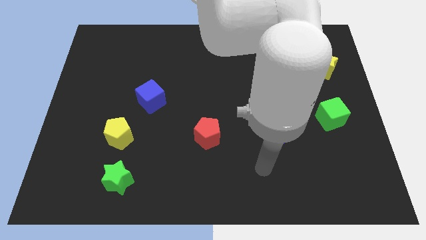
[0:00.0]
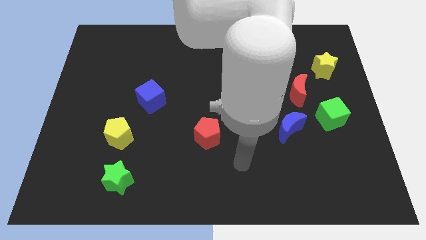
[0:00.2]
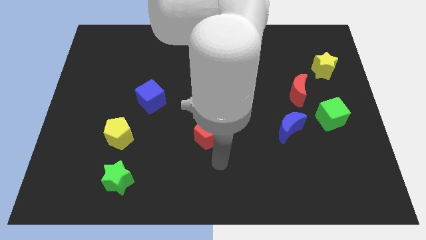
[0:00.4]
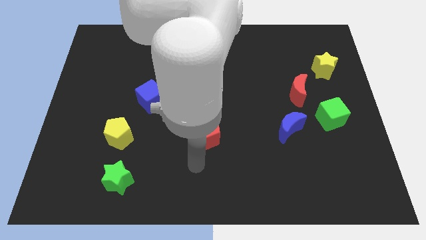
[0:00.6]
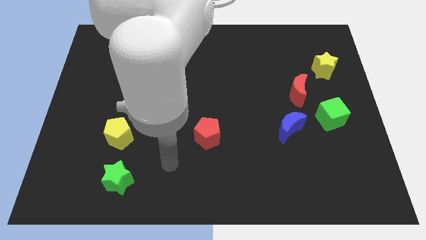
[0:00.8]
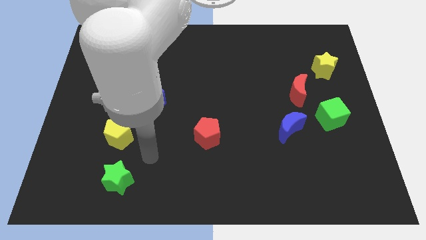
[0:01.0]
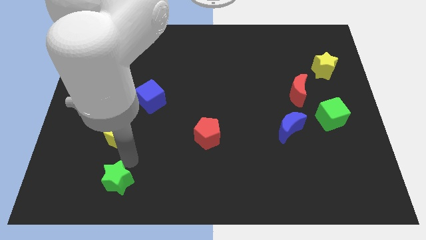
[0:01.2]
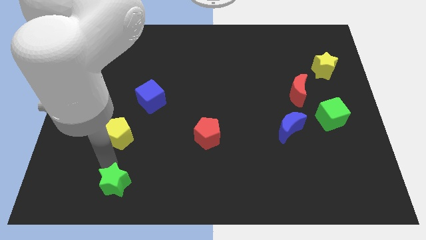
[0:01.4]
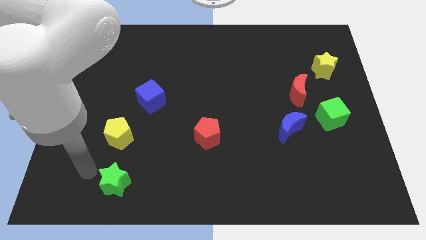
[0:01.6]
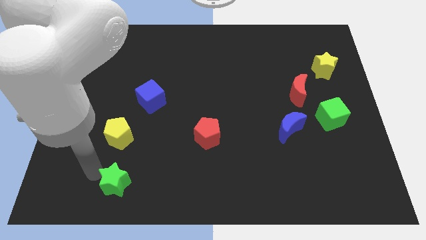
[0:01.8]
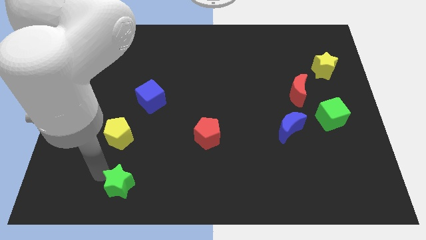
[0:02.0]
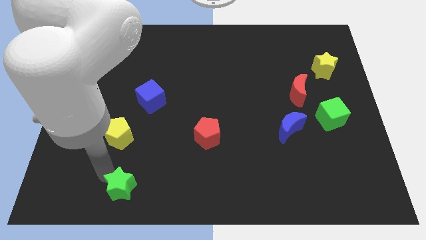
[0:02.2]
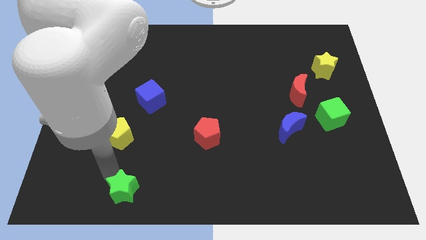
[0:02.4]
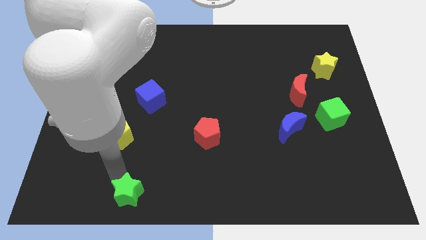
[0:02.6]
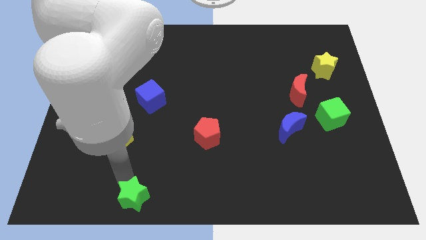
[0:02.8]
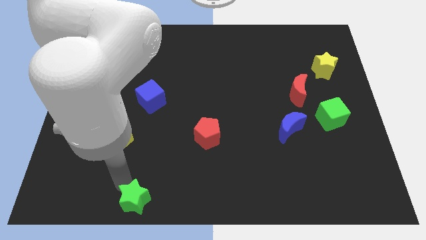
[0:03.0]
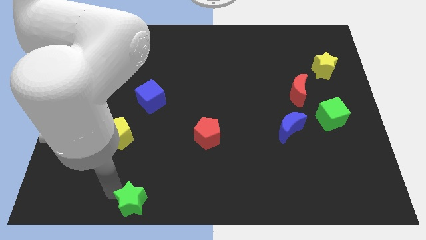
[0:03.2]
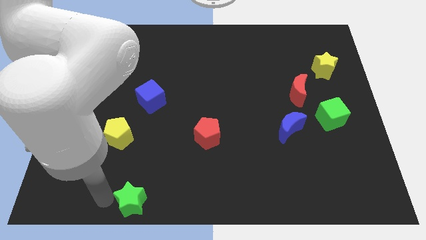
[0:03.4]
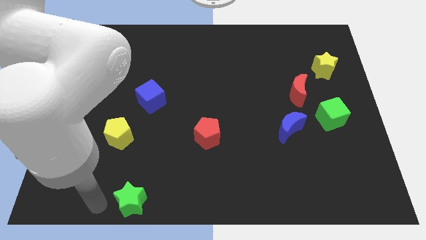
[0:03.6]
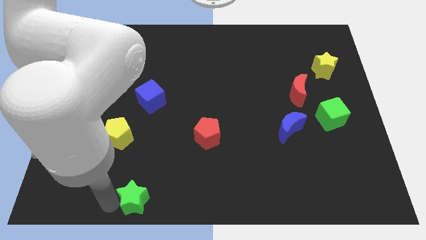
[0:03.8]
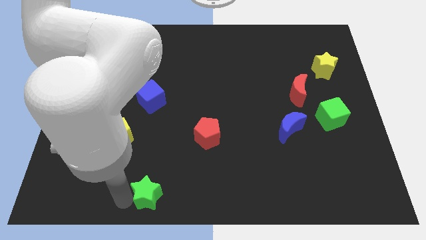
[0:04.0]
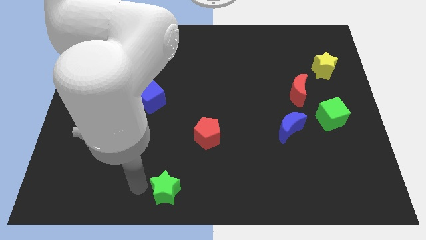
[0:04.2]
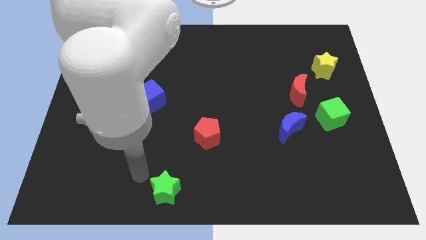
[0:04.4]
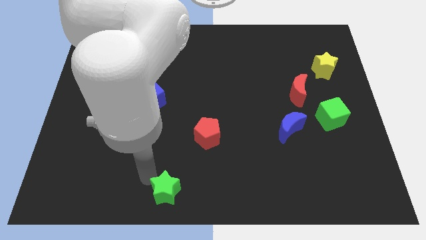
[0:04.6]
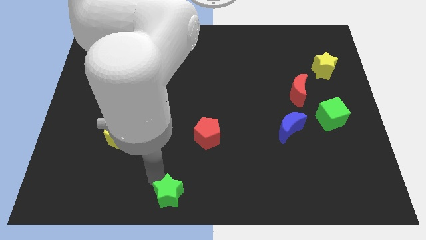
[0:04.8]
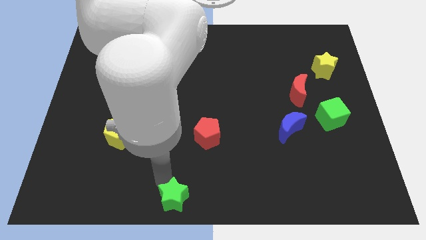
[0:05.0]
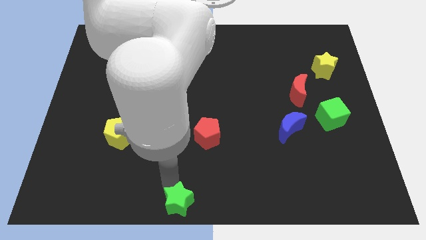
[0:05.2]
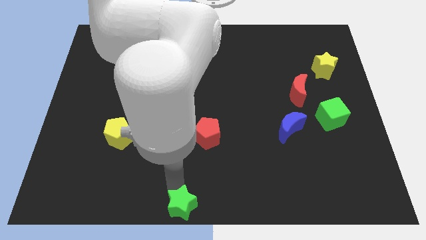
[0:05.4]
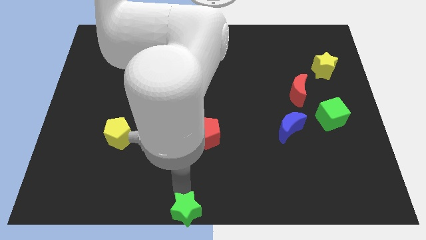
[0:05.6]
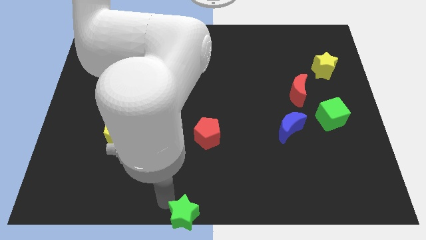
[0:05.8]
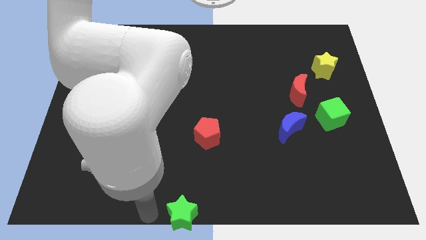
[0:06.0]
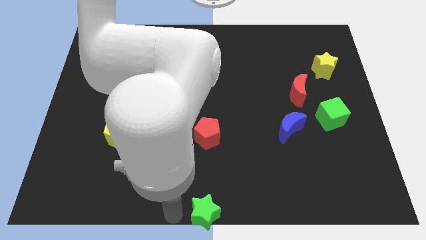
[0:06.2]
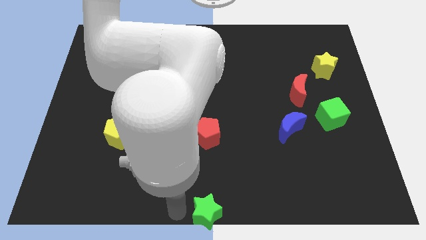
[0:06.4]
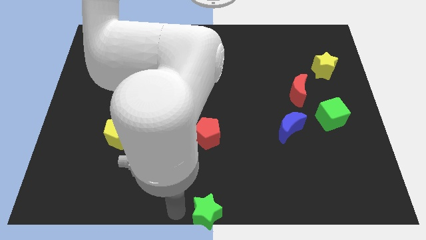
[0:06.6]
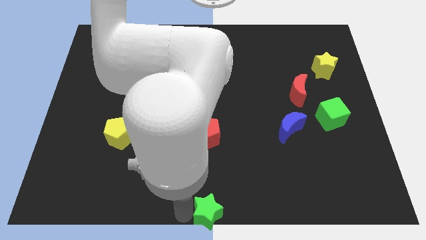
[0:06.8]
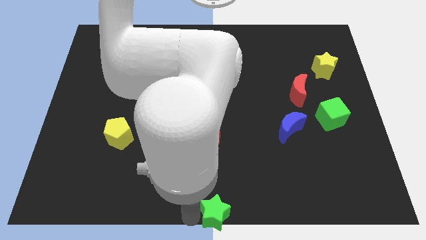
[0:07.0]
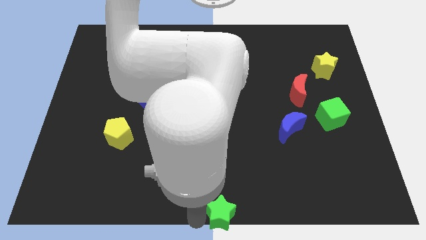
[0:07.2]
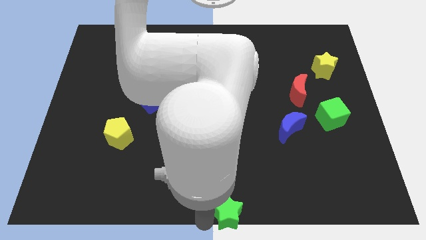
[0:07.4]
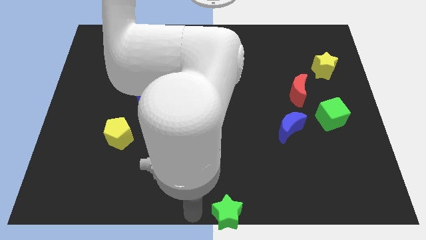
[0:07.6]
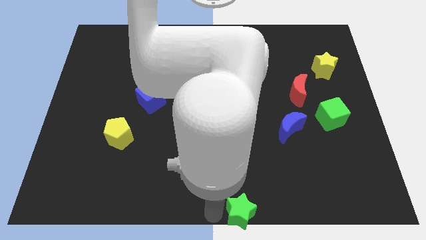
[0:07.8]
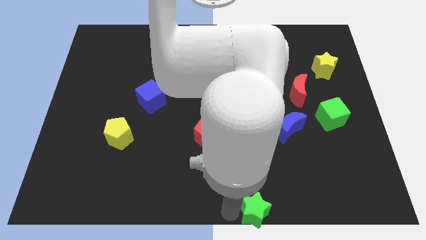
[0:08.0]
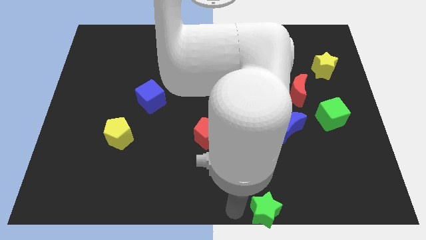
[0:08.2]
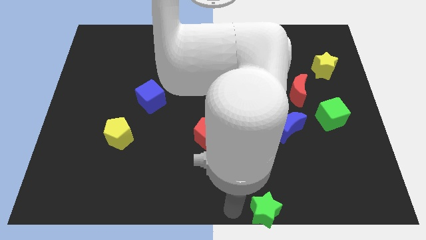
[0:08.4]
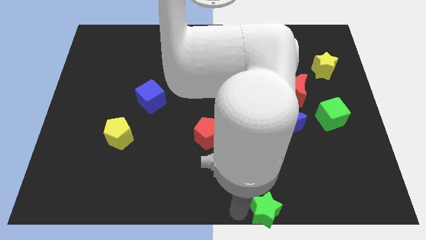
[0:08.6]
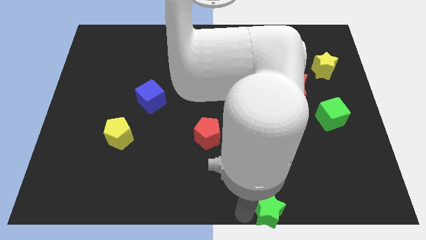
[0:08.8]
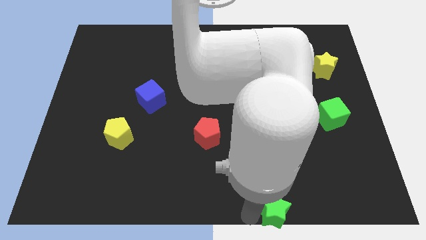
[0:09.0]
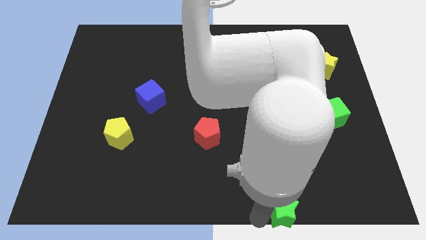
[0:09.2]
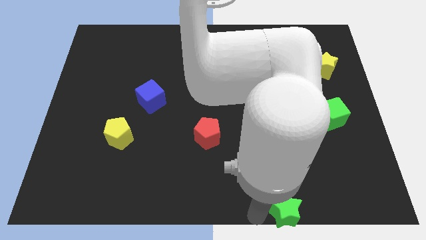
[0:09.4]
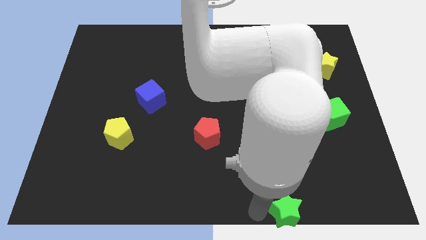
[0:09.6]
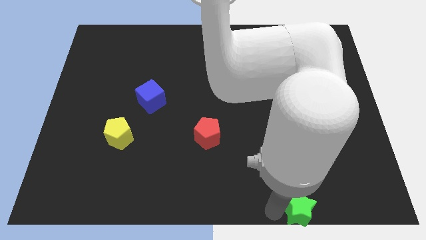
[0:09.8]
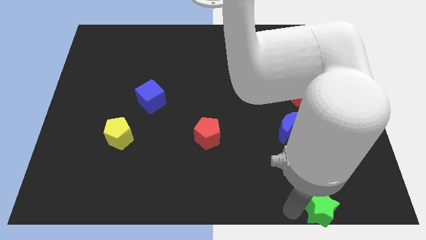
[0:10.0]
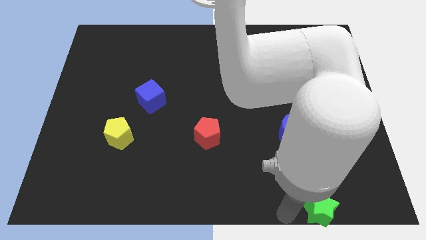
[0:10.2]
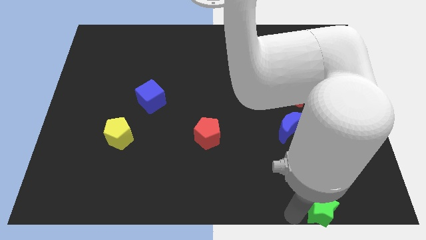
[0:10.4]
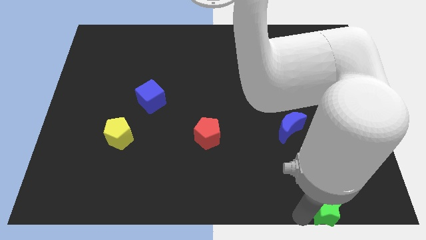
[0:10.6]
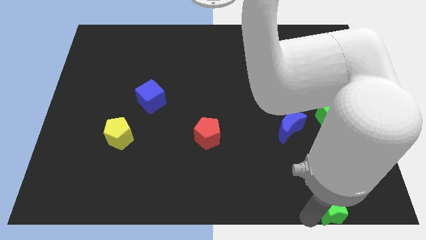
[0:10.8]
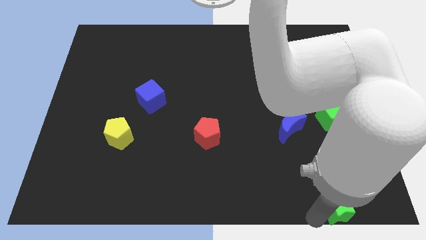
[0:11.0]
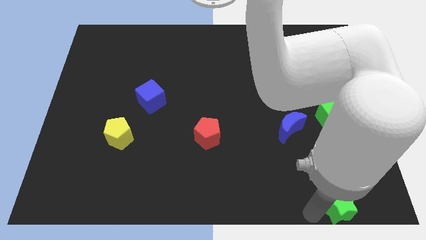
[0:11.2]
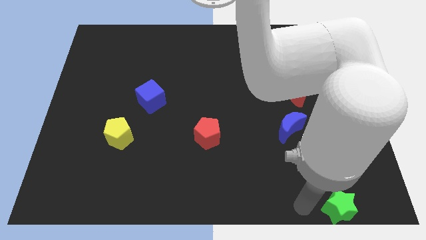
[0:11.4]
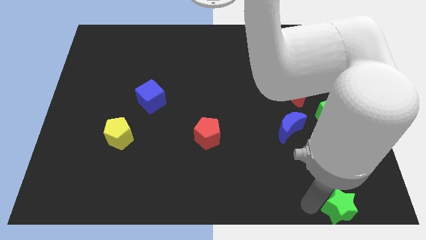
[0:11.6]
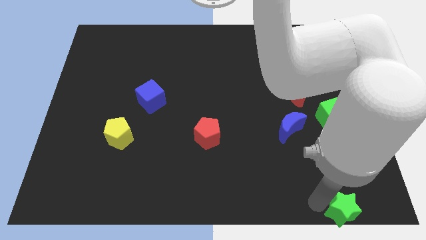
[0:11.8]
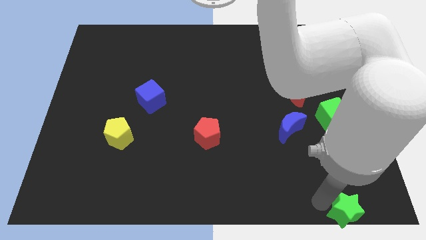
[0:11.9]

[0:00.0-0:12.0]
put the green star to the bottom right of the board

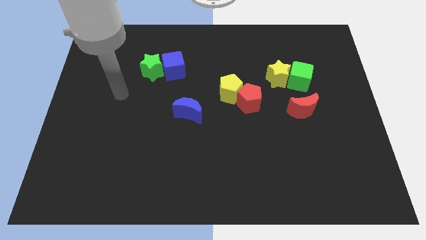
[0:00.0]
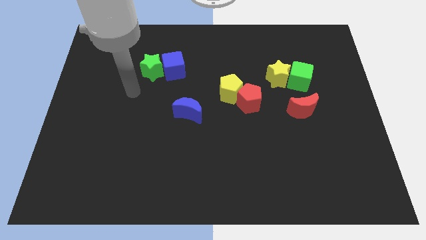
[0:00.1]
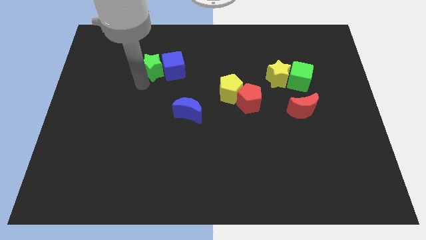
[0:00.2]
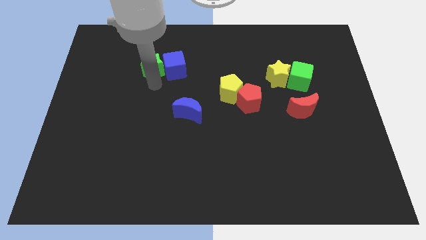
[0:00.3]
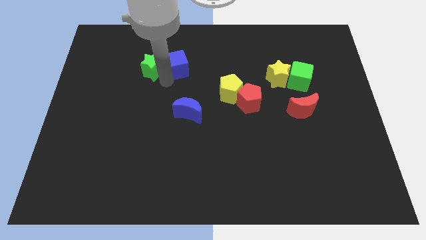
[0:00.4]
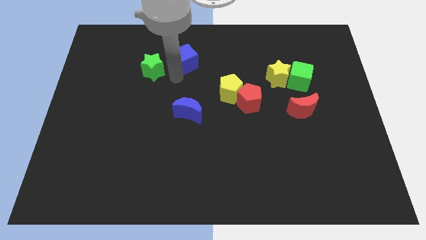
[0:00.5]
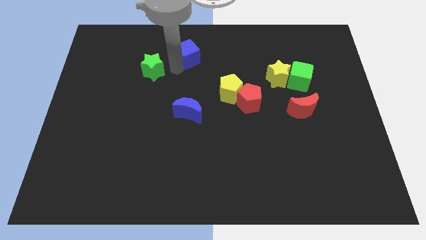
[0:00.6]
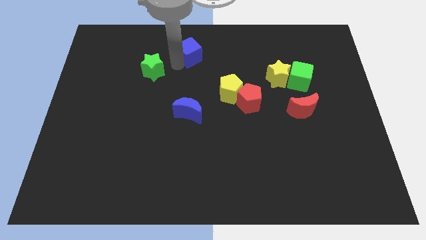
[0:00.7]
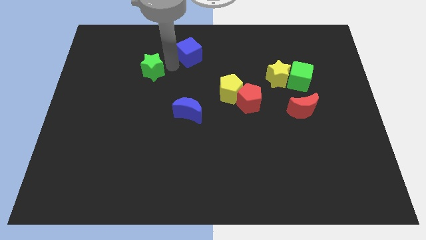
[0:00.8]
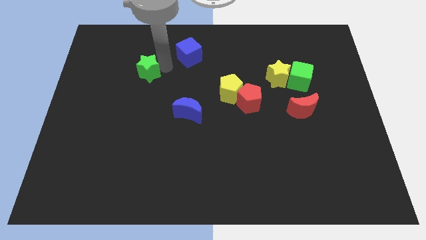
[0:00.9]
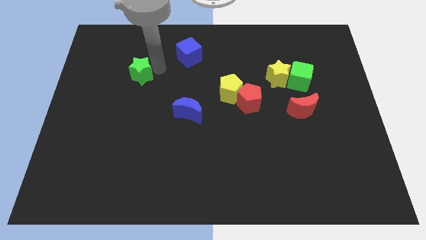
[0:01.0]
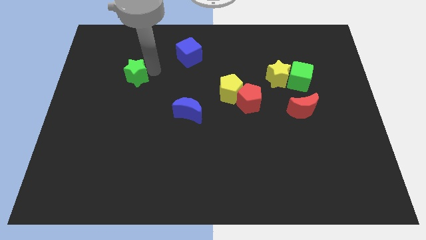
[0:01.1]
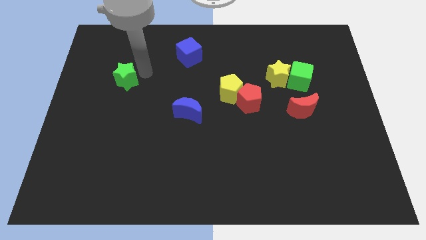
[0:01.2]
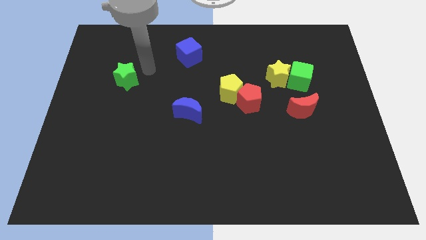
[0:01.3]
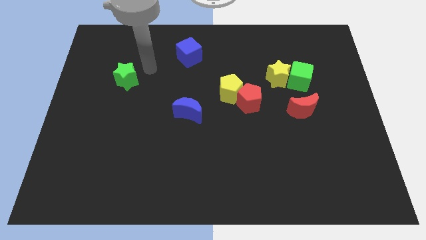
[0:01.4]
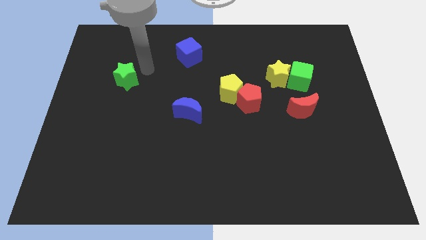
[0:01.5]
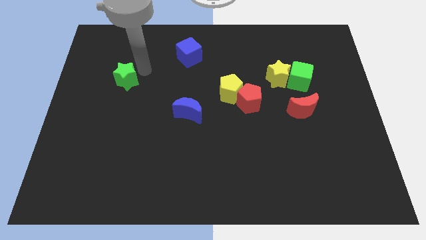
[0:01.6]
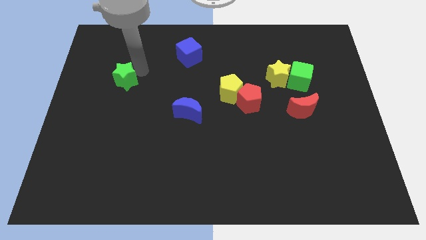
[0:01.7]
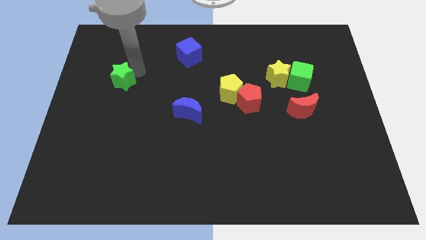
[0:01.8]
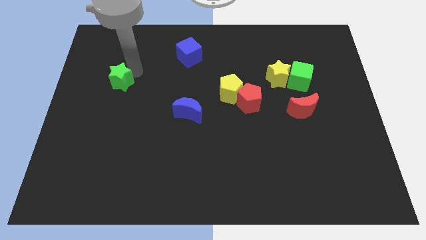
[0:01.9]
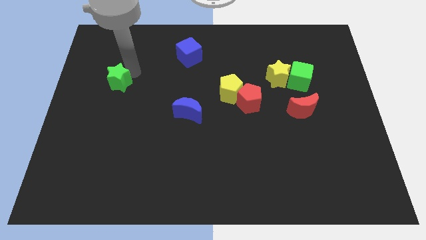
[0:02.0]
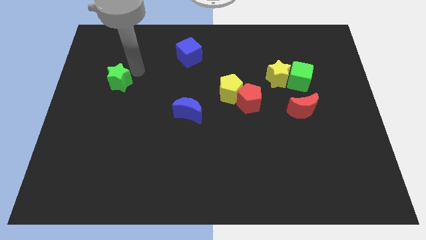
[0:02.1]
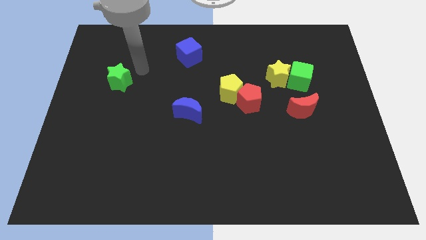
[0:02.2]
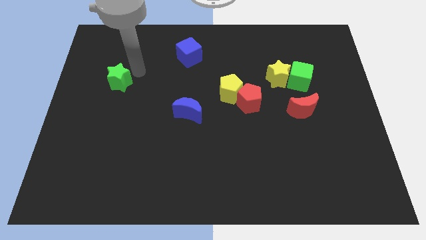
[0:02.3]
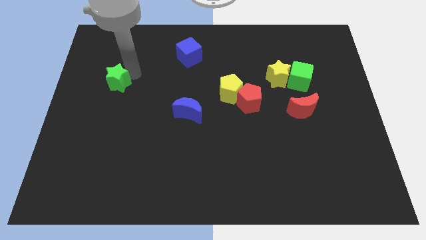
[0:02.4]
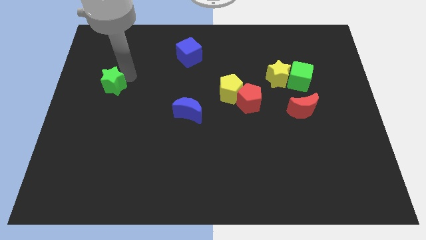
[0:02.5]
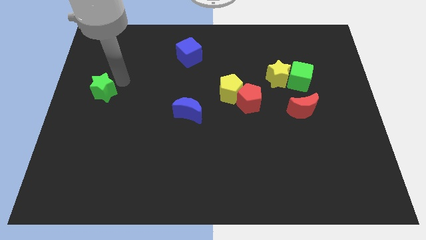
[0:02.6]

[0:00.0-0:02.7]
slide the green star to the center left
